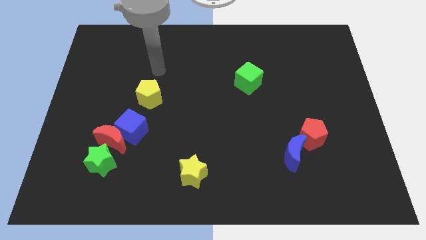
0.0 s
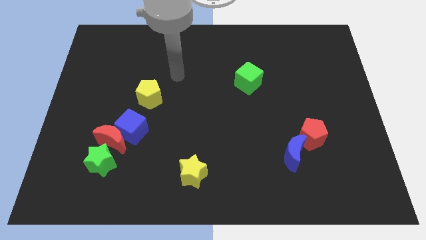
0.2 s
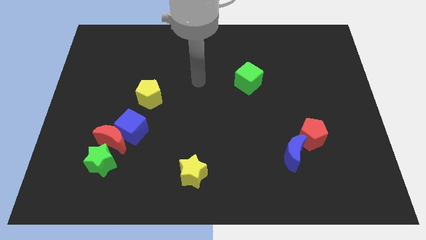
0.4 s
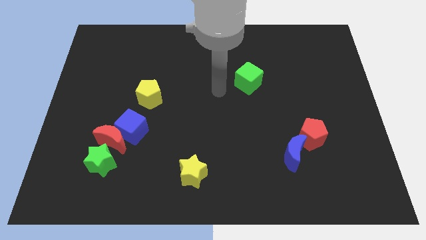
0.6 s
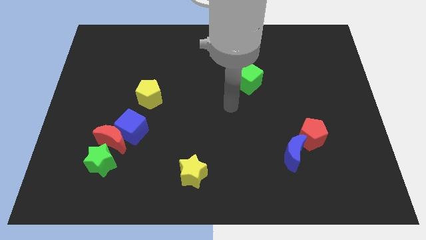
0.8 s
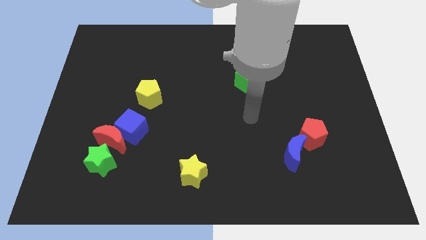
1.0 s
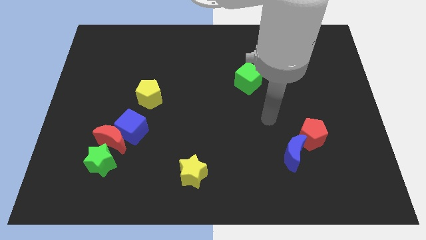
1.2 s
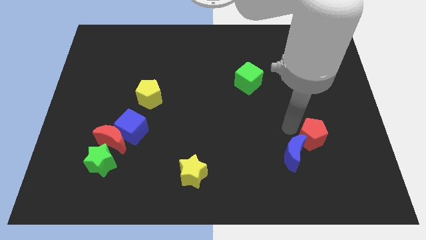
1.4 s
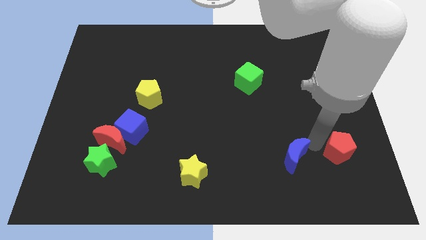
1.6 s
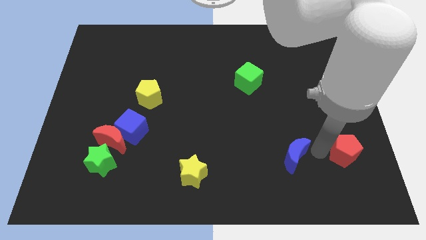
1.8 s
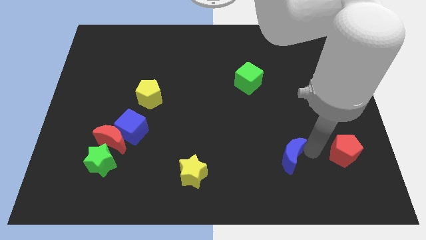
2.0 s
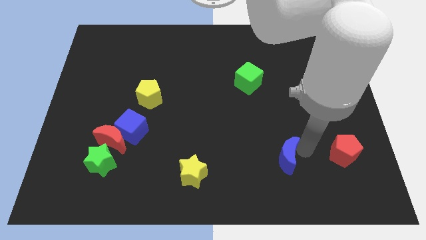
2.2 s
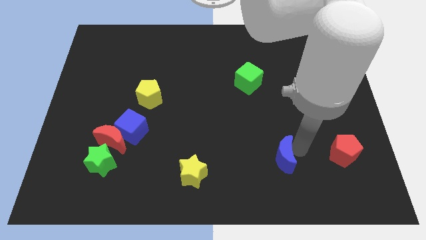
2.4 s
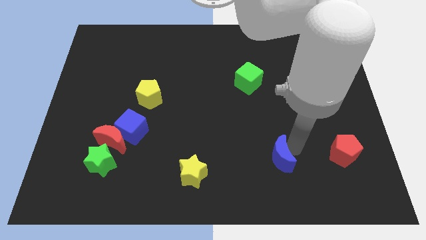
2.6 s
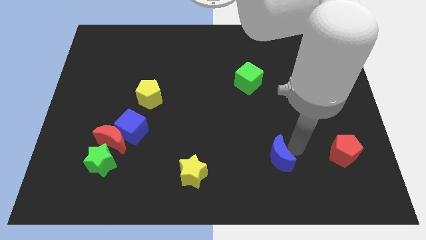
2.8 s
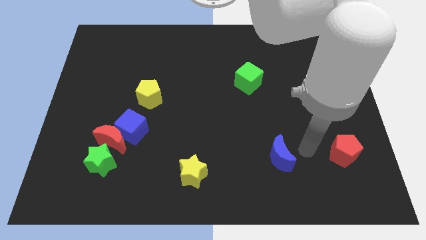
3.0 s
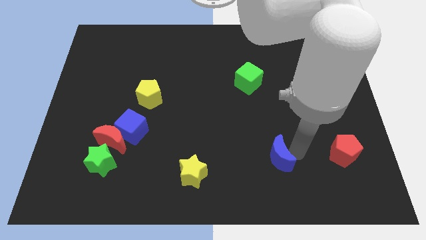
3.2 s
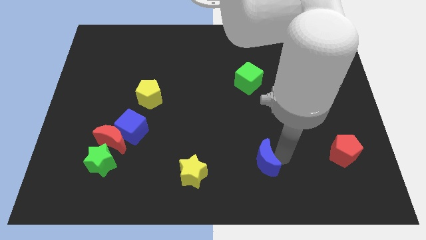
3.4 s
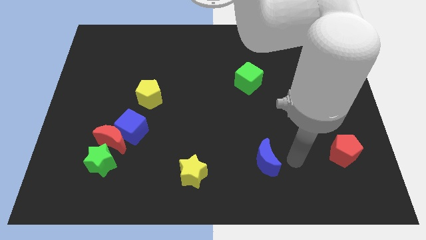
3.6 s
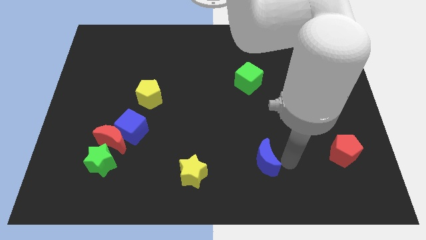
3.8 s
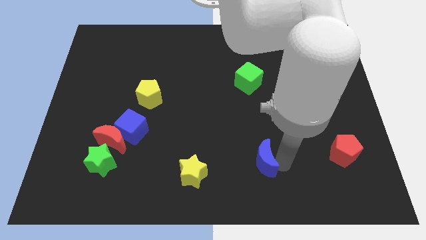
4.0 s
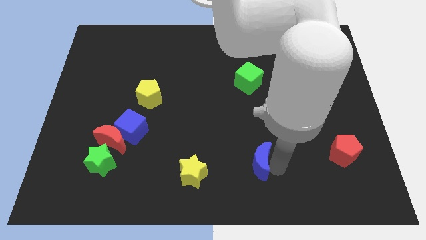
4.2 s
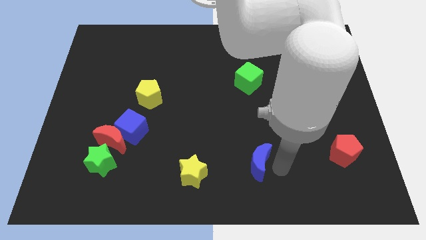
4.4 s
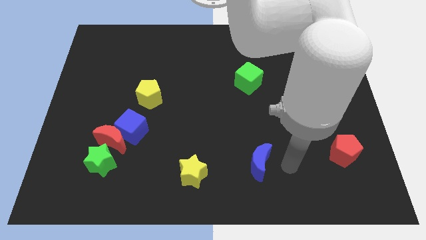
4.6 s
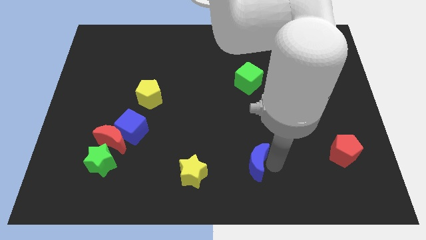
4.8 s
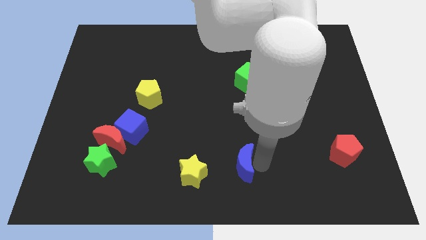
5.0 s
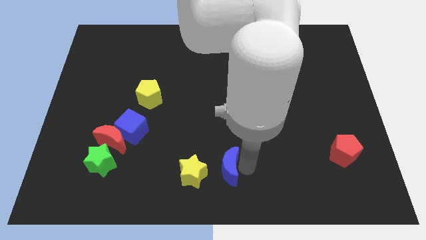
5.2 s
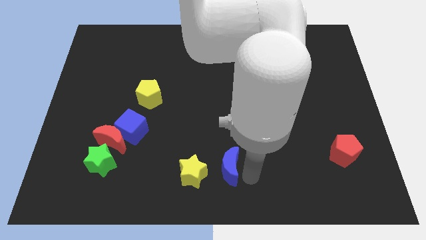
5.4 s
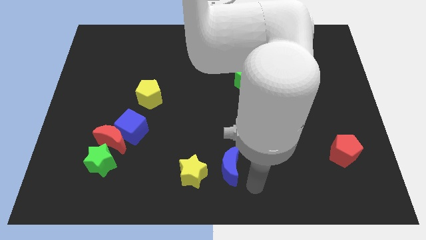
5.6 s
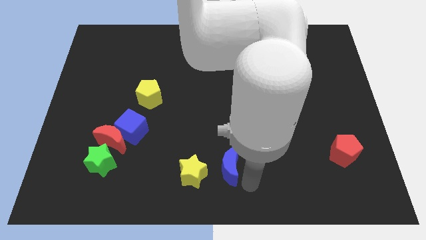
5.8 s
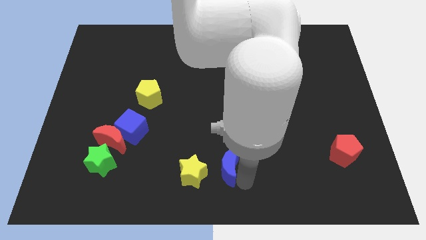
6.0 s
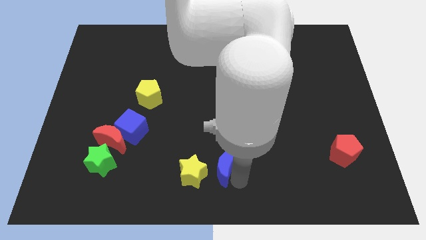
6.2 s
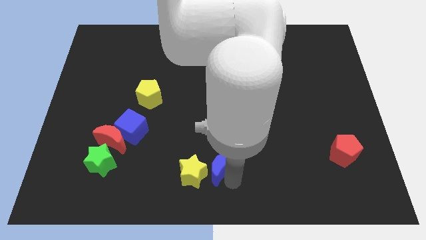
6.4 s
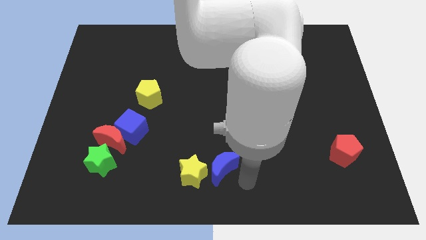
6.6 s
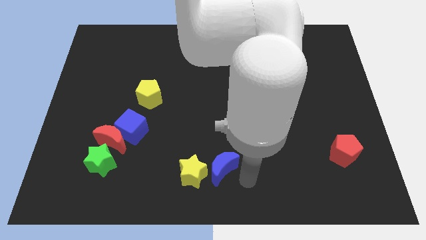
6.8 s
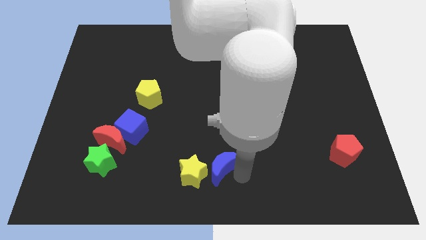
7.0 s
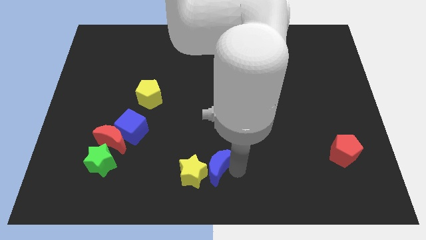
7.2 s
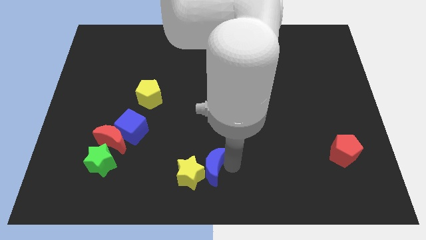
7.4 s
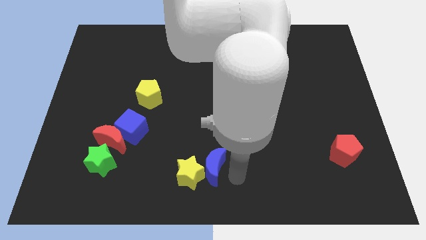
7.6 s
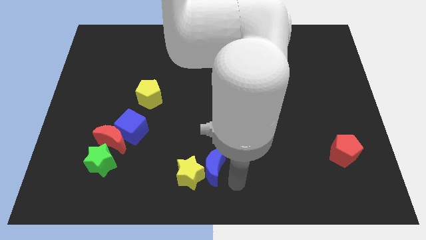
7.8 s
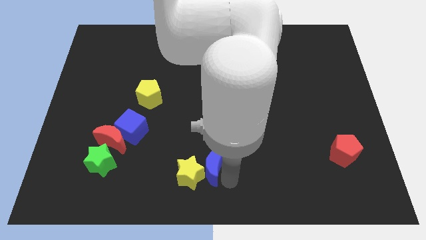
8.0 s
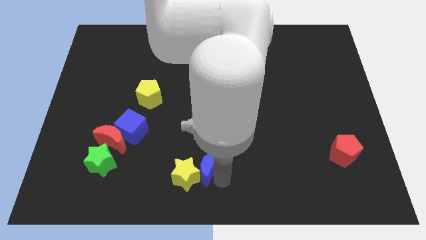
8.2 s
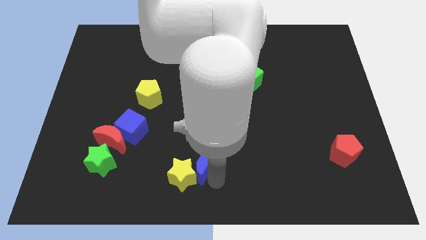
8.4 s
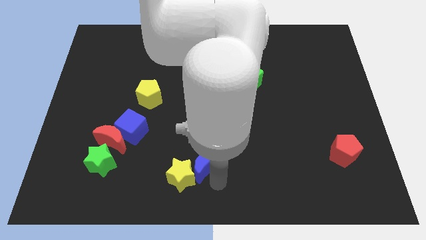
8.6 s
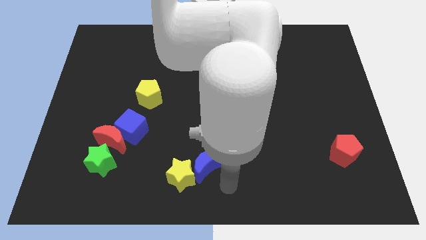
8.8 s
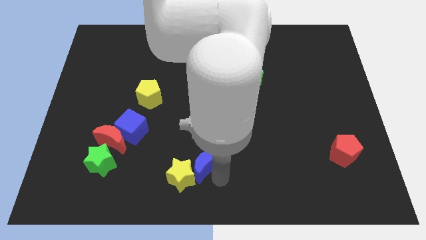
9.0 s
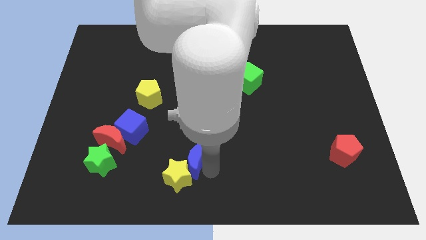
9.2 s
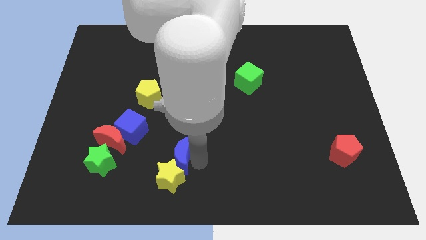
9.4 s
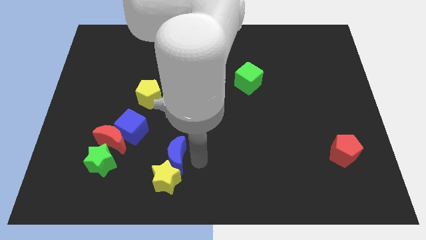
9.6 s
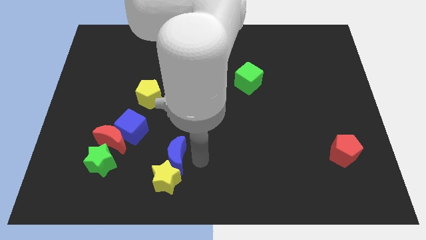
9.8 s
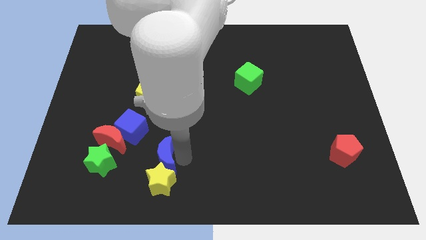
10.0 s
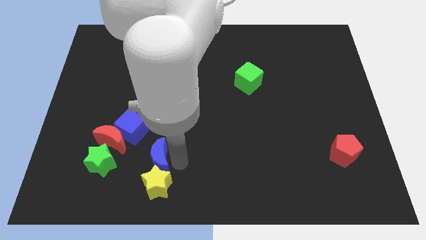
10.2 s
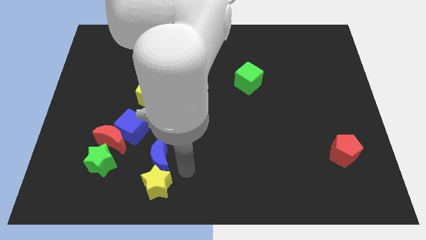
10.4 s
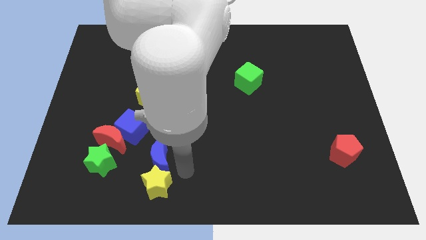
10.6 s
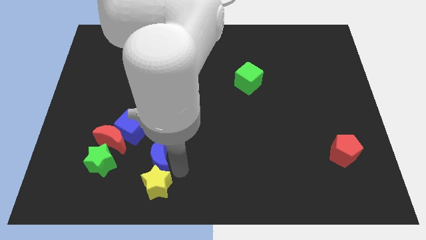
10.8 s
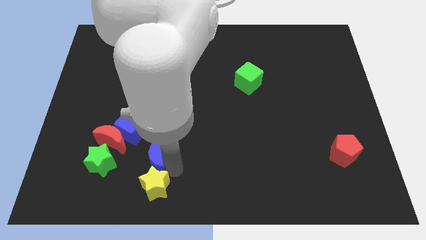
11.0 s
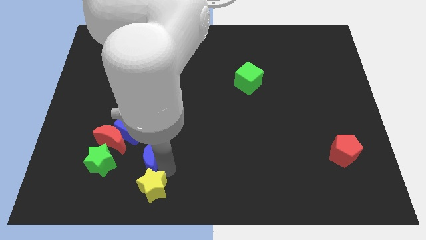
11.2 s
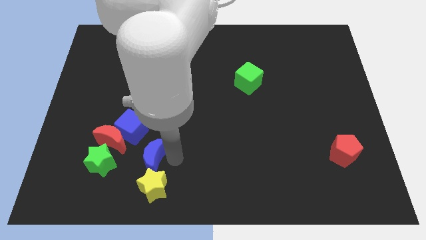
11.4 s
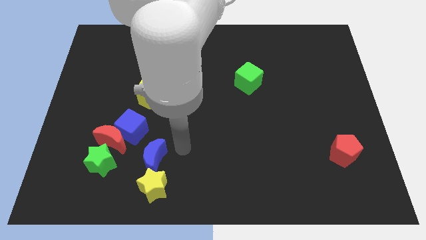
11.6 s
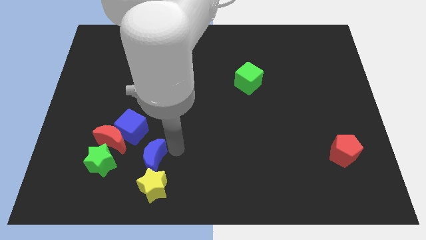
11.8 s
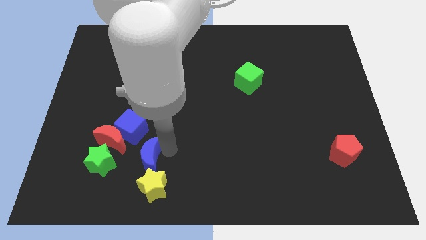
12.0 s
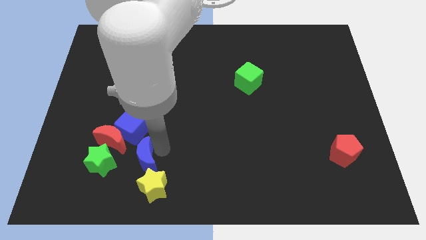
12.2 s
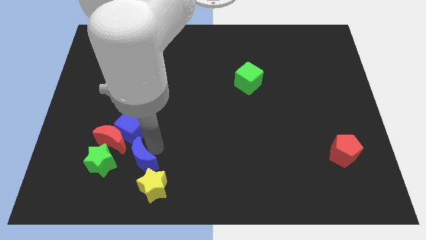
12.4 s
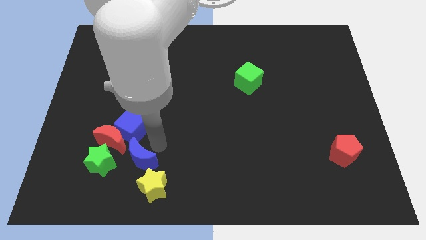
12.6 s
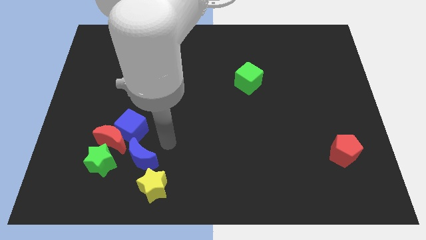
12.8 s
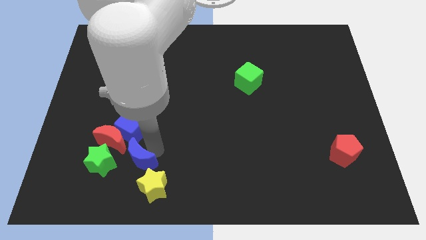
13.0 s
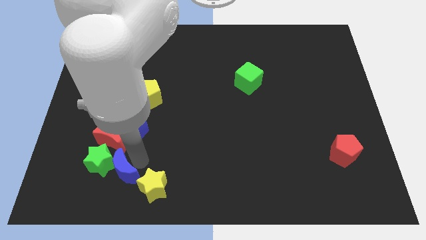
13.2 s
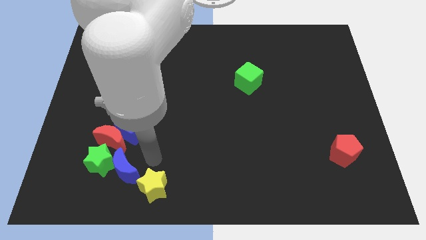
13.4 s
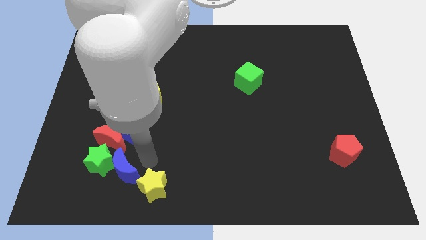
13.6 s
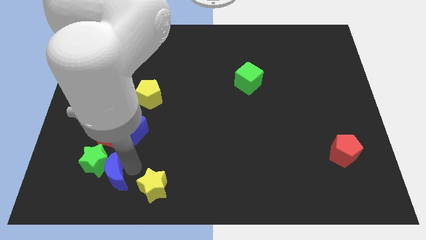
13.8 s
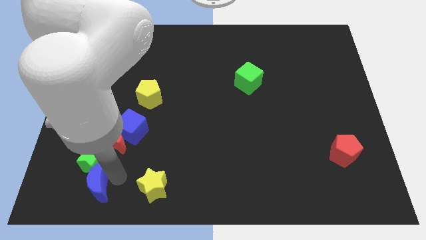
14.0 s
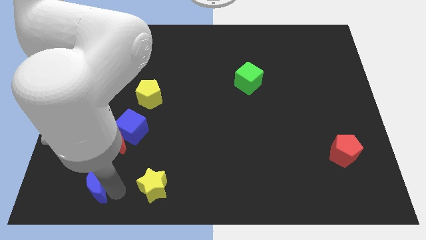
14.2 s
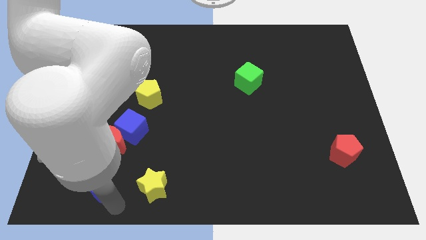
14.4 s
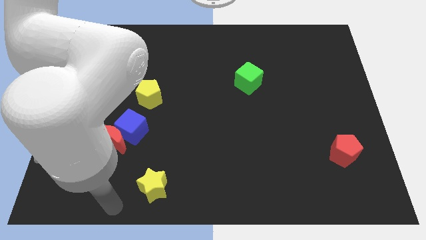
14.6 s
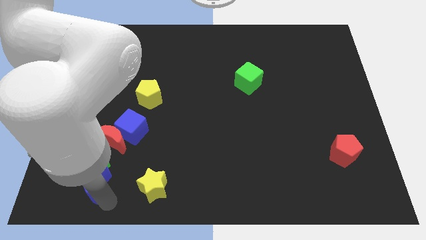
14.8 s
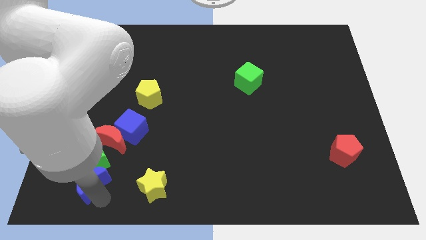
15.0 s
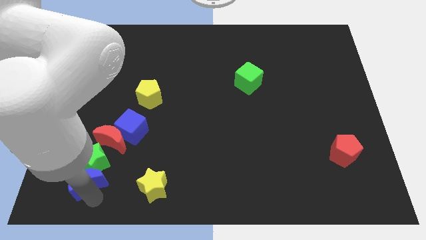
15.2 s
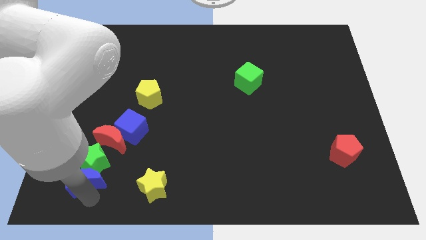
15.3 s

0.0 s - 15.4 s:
put the blue moon diagonally down and to the left of the red moon
